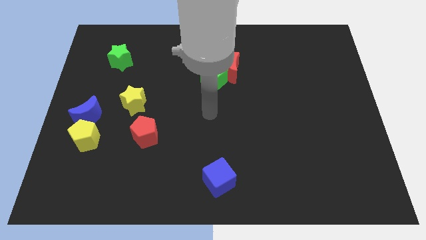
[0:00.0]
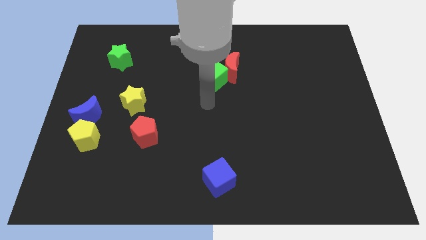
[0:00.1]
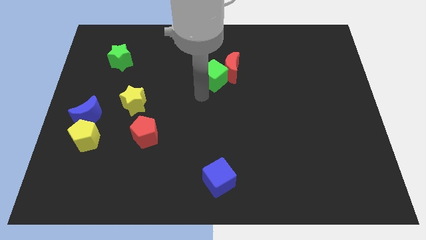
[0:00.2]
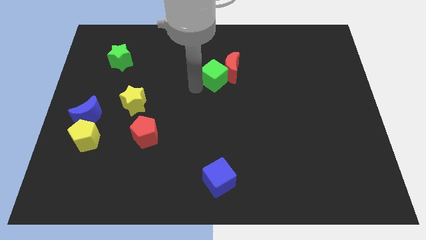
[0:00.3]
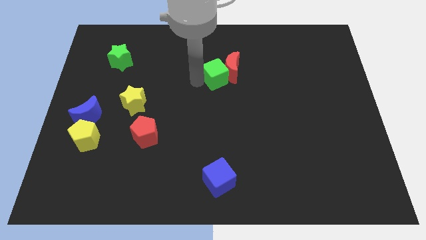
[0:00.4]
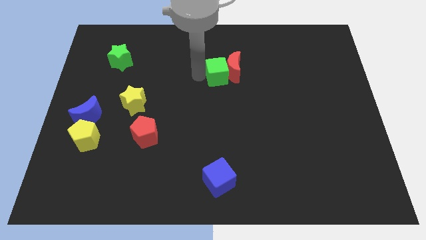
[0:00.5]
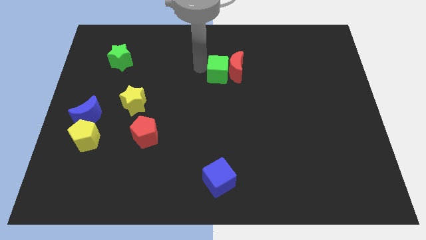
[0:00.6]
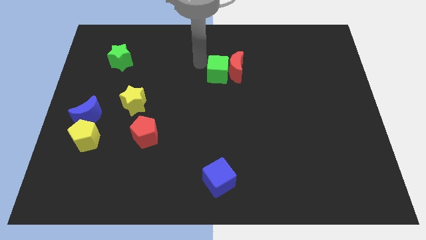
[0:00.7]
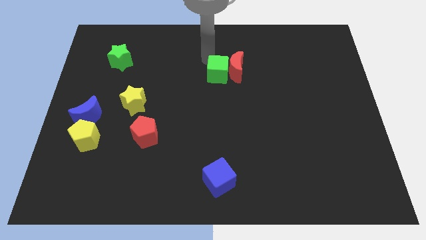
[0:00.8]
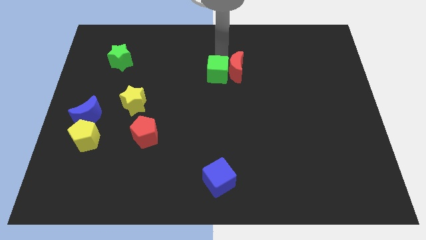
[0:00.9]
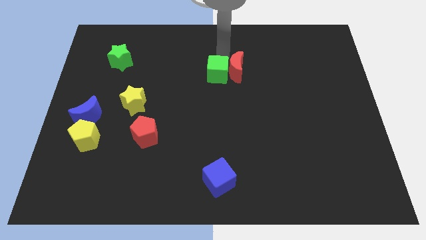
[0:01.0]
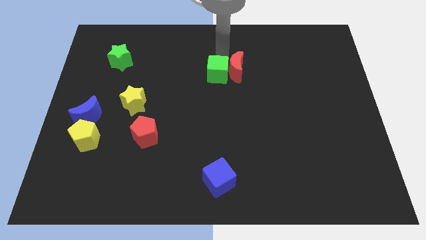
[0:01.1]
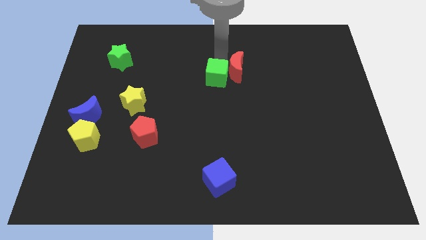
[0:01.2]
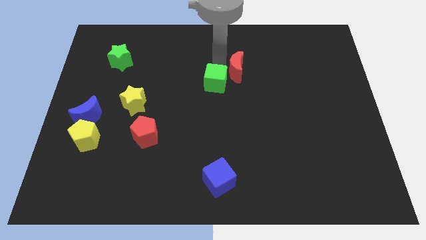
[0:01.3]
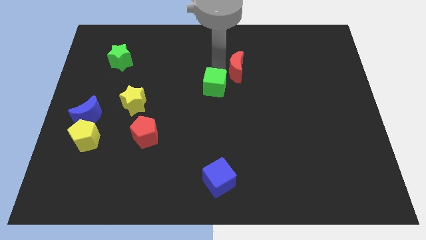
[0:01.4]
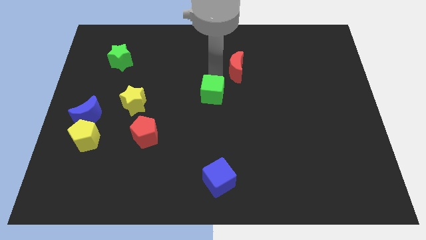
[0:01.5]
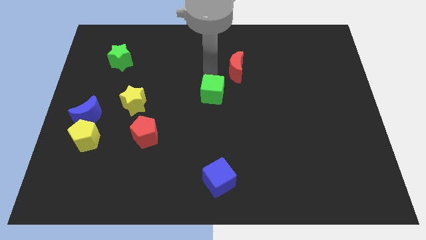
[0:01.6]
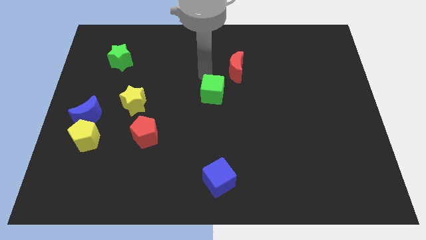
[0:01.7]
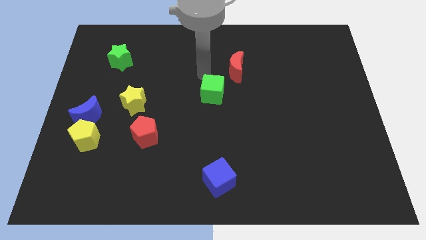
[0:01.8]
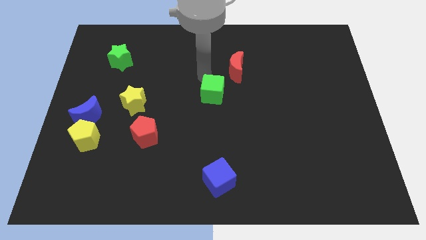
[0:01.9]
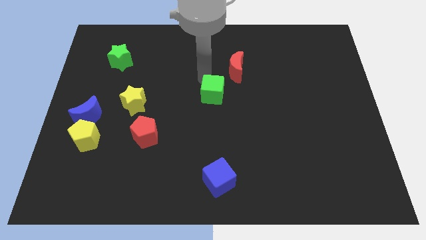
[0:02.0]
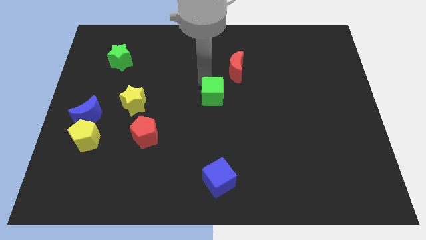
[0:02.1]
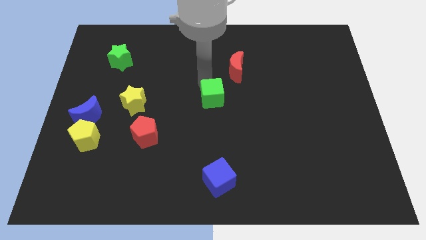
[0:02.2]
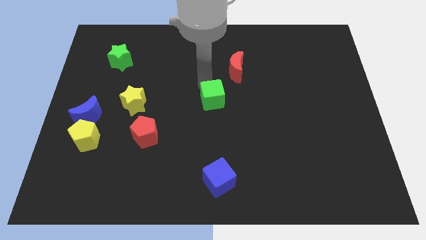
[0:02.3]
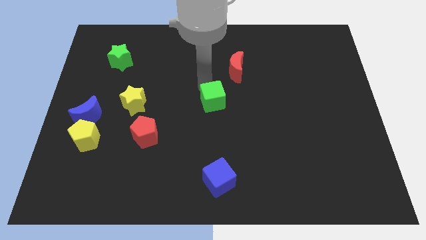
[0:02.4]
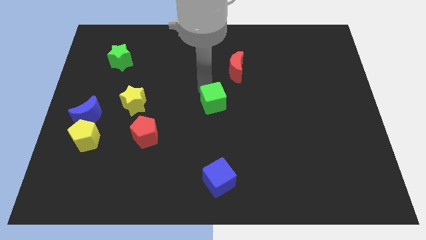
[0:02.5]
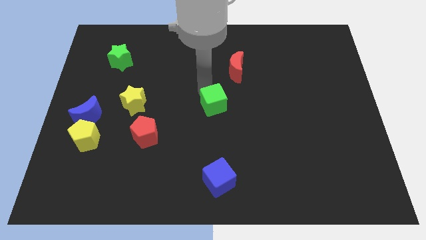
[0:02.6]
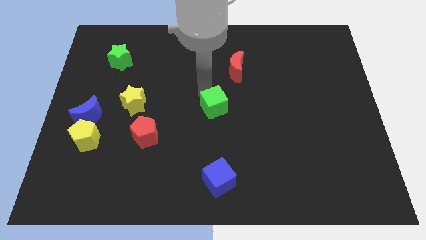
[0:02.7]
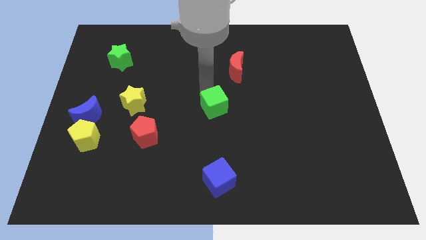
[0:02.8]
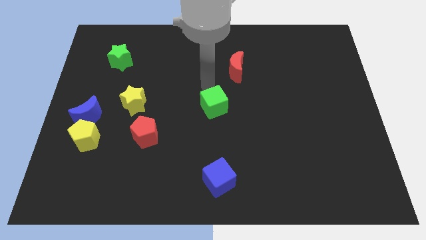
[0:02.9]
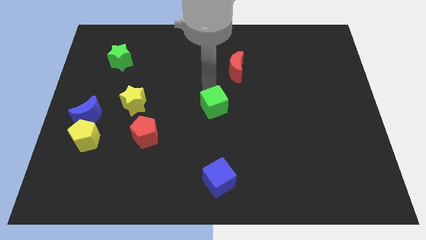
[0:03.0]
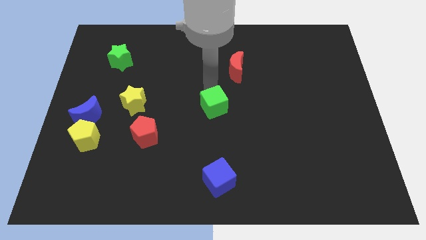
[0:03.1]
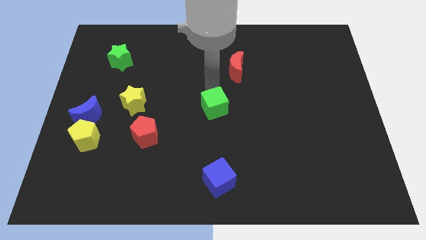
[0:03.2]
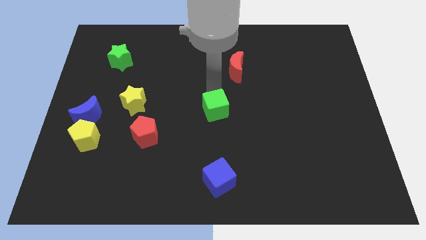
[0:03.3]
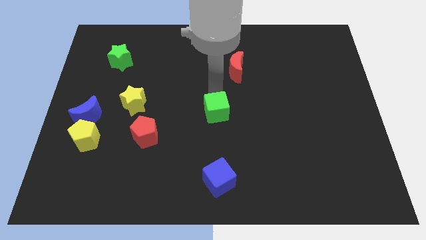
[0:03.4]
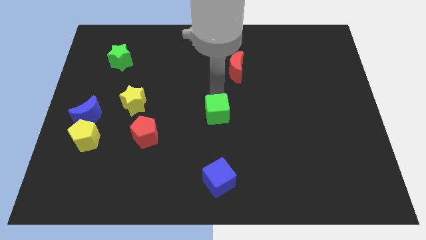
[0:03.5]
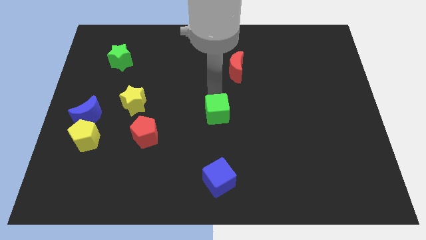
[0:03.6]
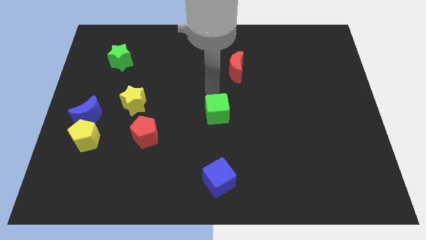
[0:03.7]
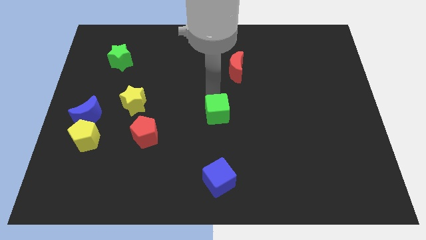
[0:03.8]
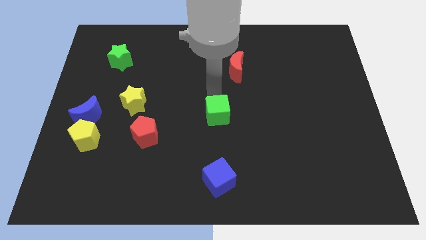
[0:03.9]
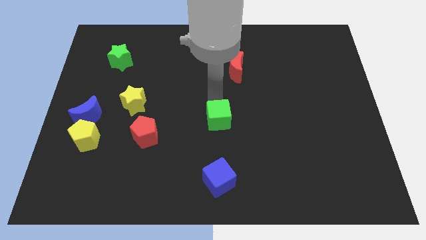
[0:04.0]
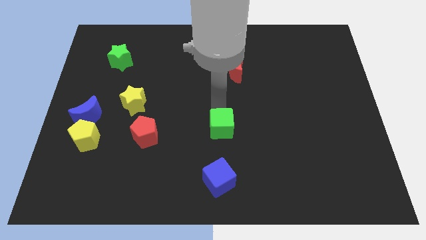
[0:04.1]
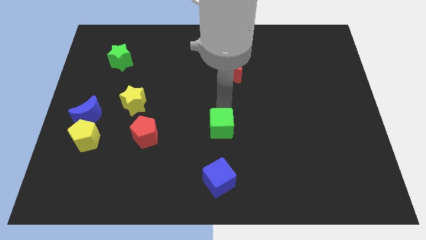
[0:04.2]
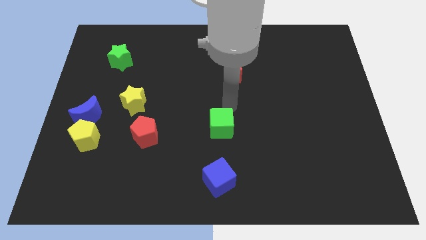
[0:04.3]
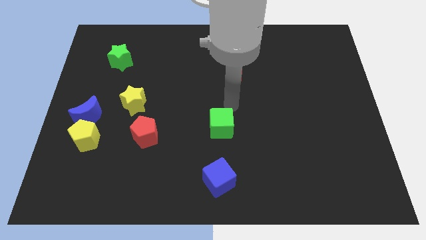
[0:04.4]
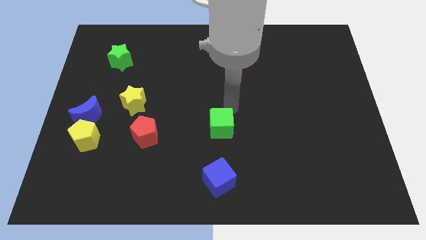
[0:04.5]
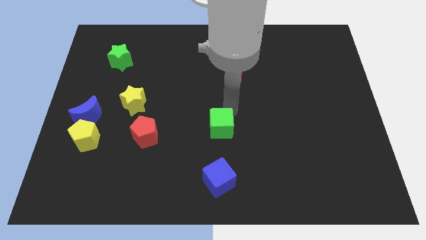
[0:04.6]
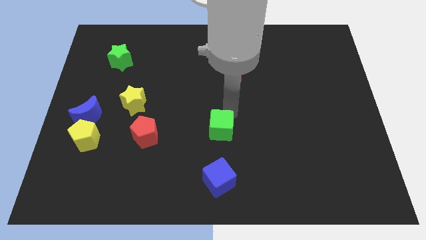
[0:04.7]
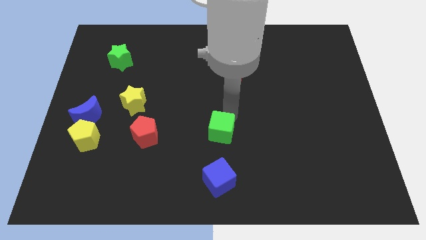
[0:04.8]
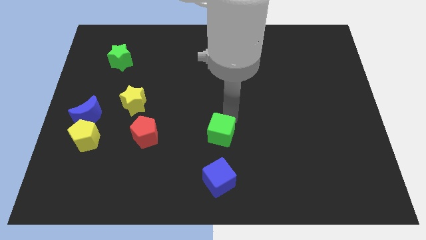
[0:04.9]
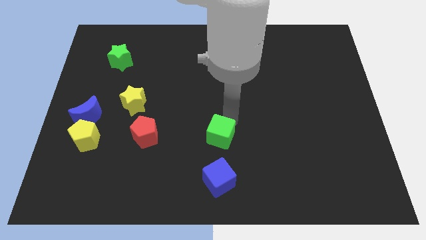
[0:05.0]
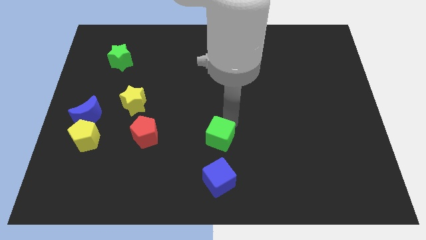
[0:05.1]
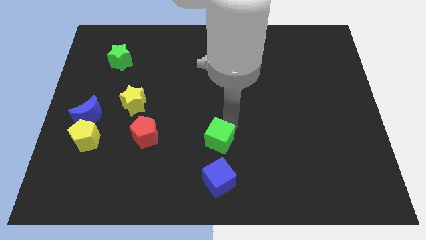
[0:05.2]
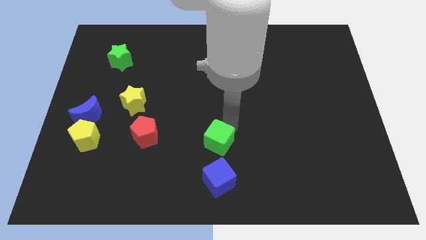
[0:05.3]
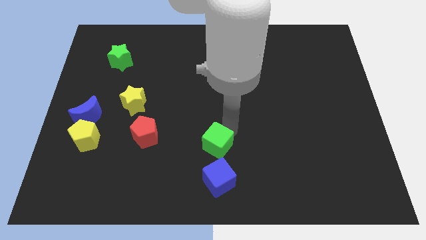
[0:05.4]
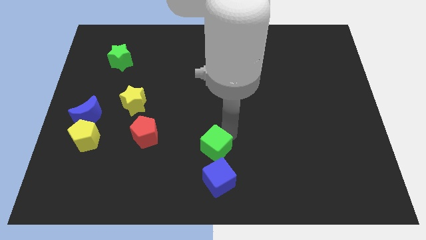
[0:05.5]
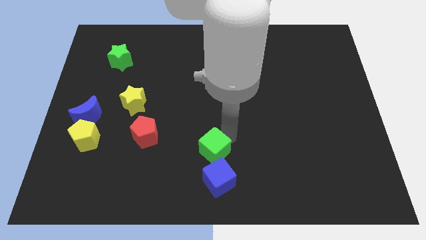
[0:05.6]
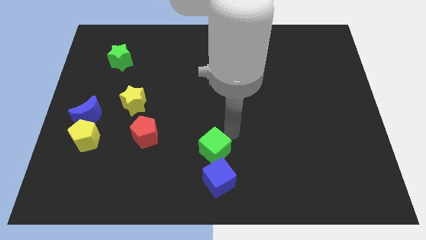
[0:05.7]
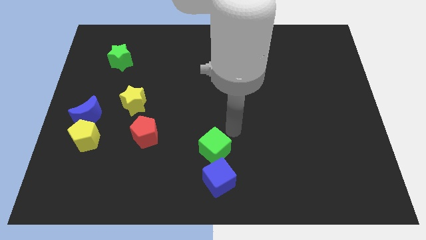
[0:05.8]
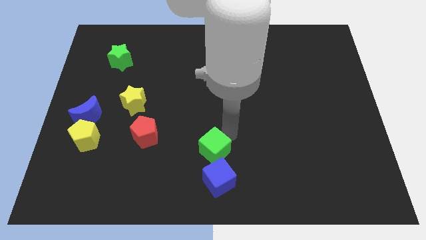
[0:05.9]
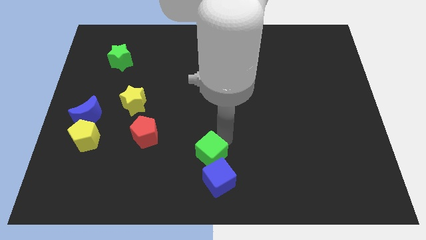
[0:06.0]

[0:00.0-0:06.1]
move the green cube to the bottom
